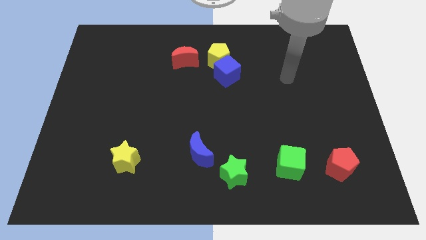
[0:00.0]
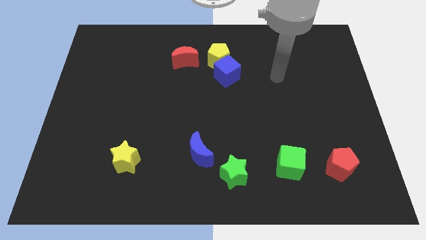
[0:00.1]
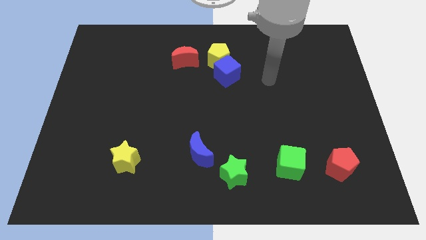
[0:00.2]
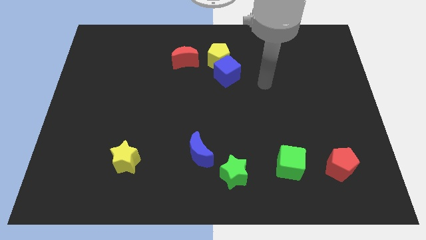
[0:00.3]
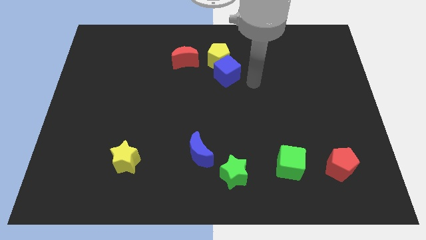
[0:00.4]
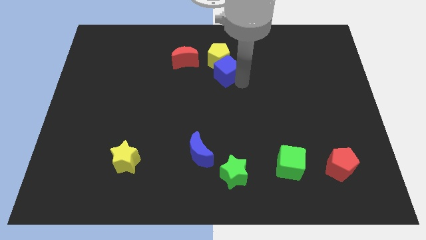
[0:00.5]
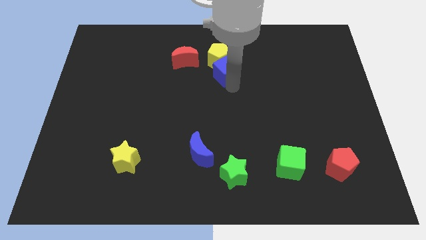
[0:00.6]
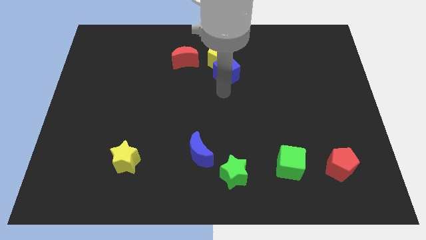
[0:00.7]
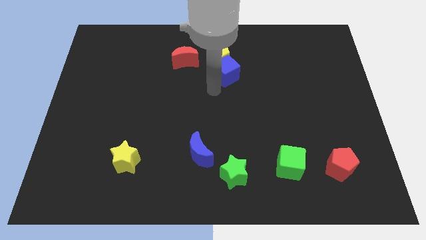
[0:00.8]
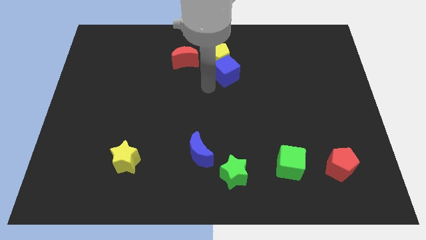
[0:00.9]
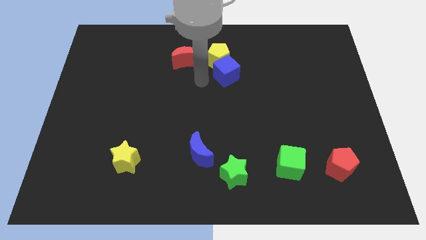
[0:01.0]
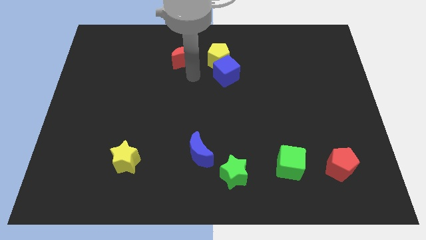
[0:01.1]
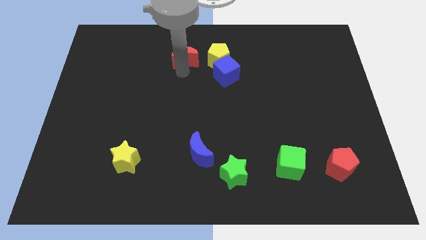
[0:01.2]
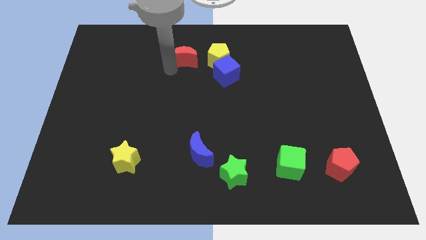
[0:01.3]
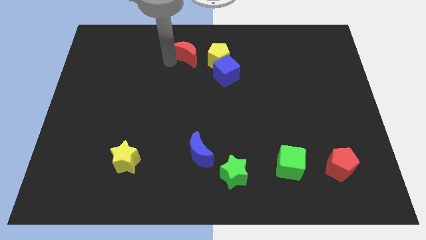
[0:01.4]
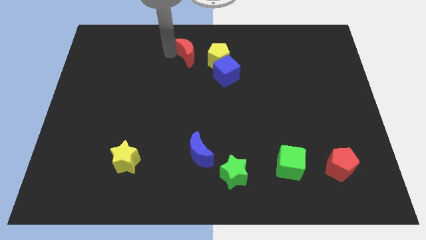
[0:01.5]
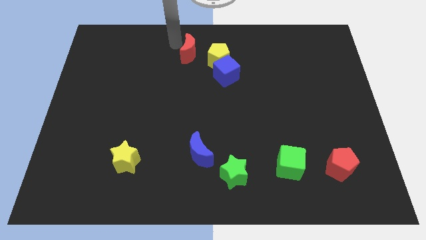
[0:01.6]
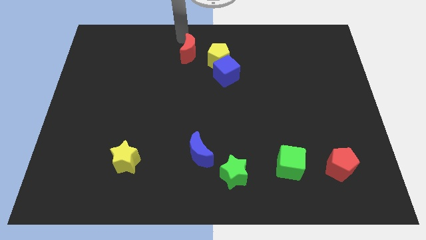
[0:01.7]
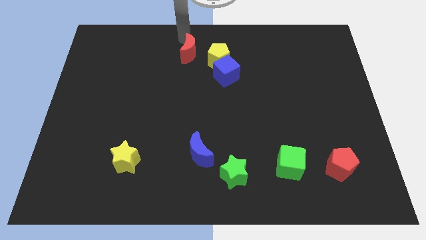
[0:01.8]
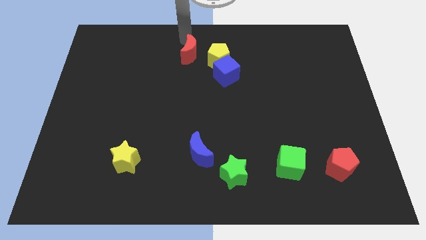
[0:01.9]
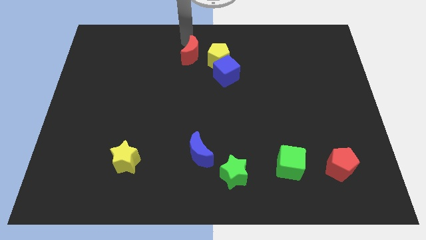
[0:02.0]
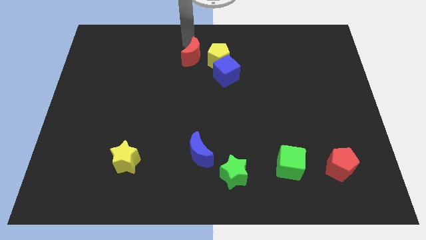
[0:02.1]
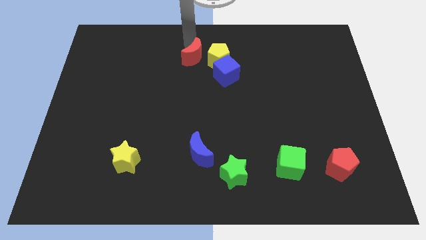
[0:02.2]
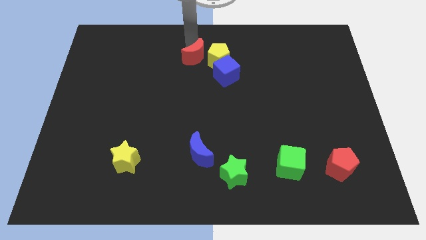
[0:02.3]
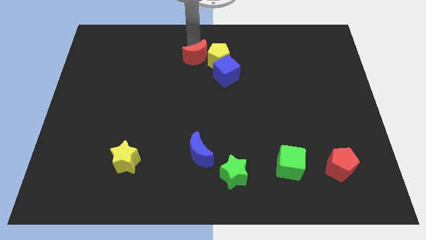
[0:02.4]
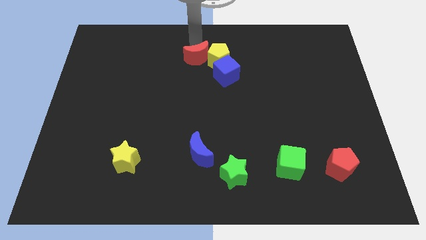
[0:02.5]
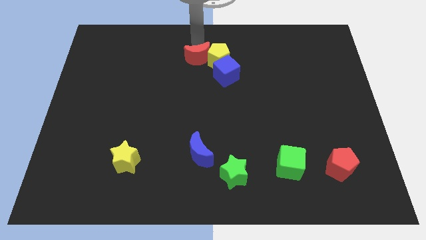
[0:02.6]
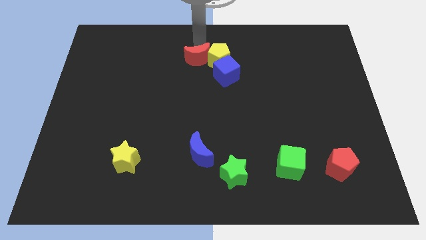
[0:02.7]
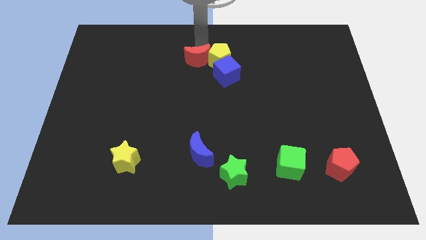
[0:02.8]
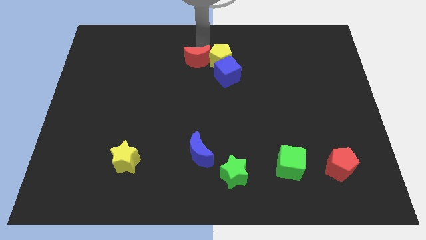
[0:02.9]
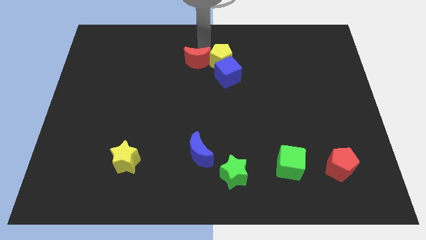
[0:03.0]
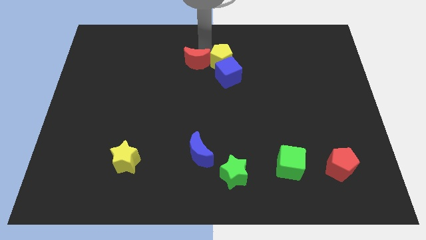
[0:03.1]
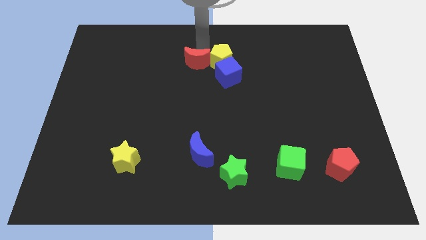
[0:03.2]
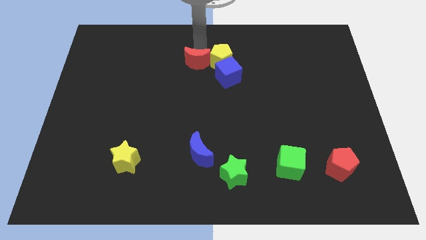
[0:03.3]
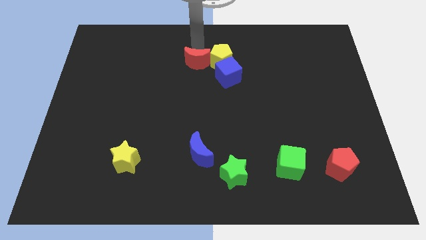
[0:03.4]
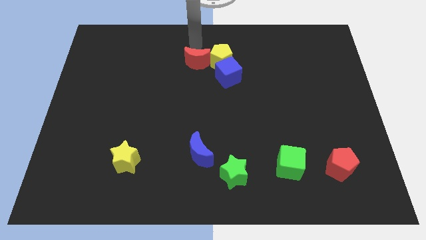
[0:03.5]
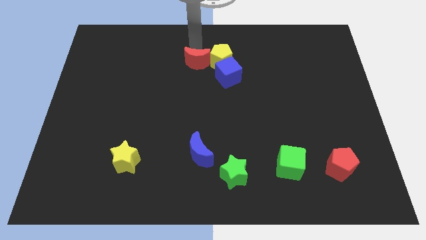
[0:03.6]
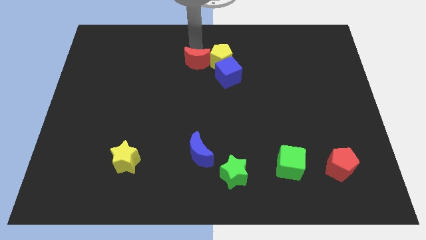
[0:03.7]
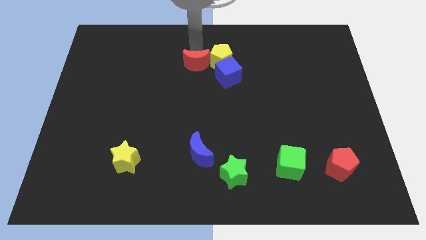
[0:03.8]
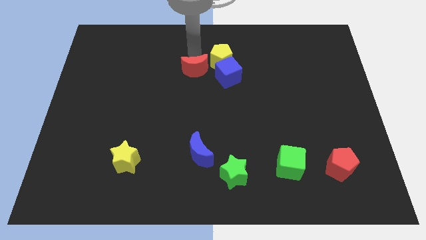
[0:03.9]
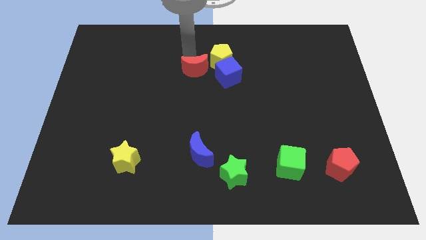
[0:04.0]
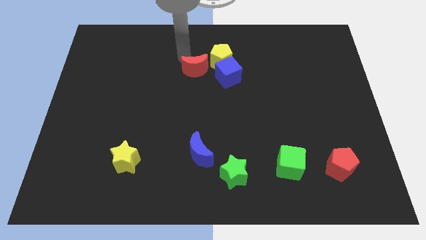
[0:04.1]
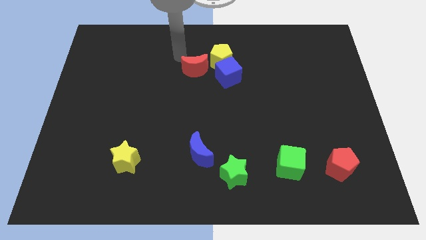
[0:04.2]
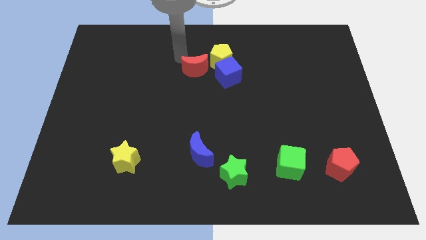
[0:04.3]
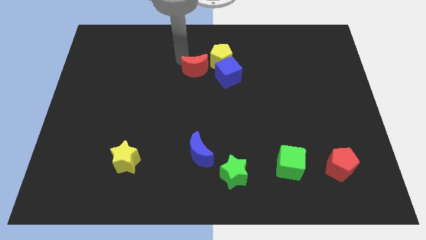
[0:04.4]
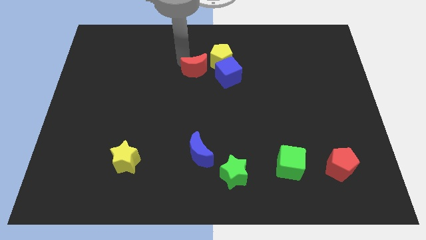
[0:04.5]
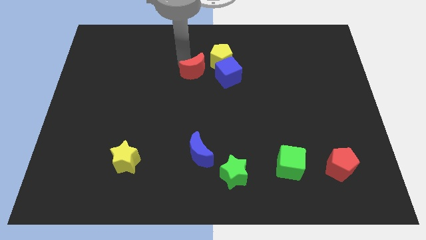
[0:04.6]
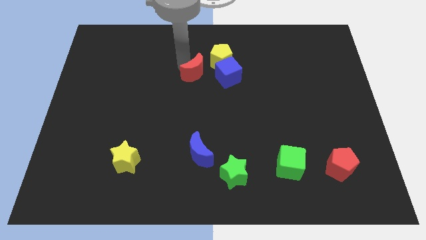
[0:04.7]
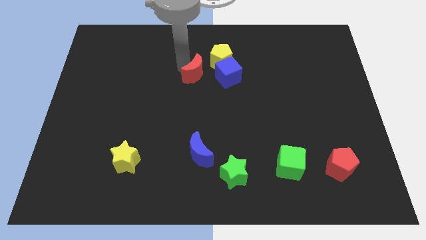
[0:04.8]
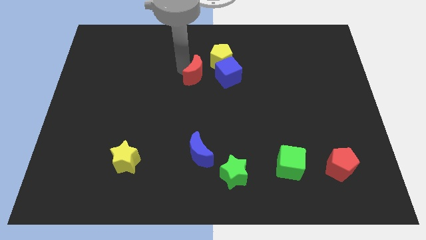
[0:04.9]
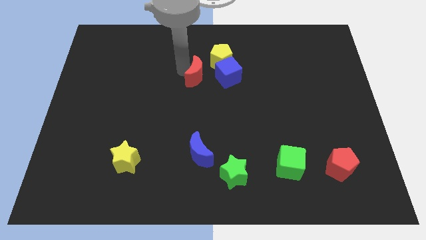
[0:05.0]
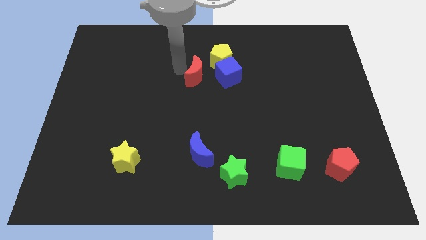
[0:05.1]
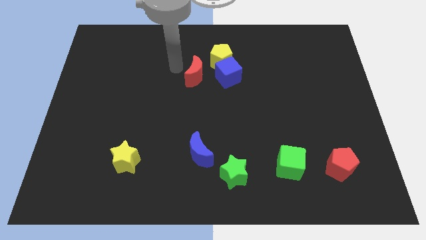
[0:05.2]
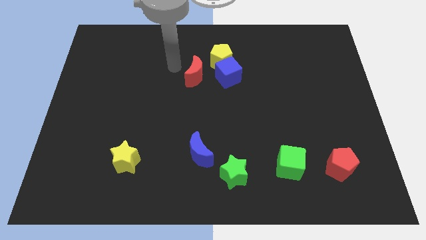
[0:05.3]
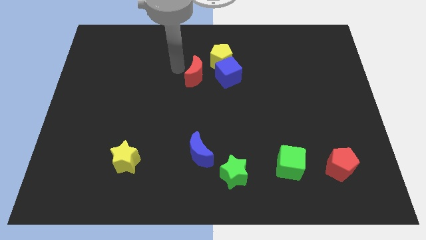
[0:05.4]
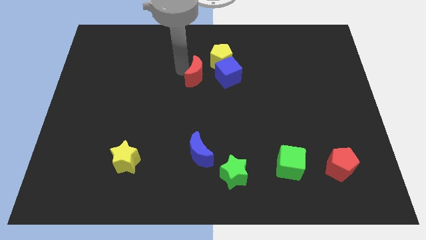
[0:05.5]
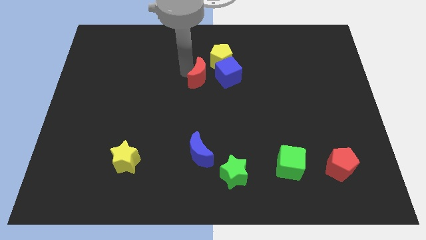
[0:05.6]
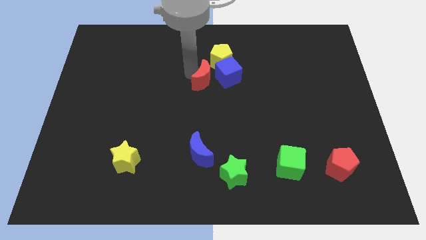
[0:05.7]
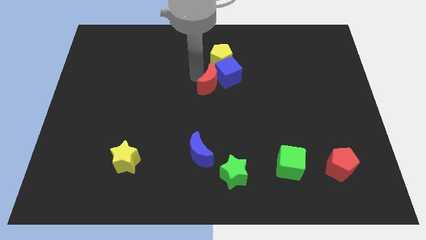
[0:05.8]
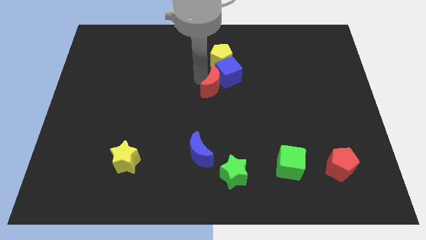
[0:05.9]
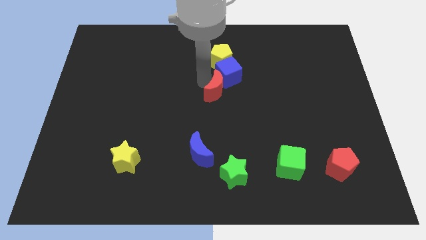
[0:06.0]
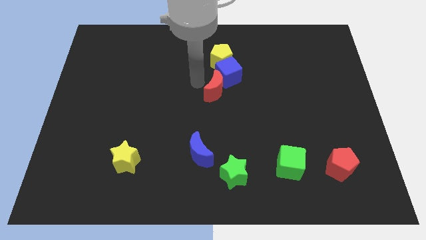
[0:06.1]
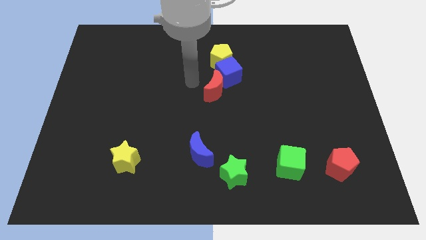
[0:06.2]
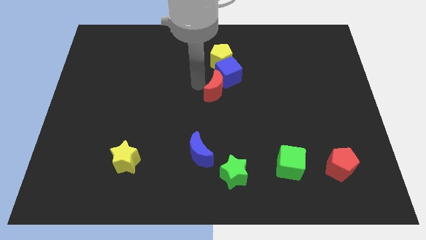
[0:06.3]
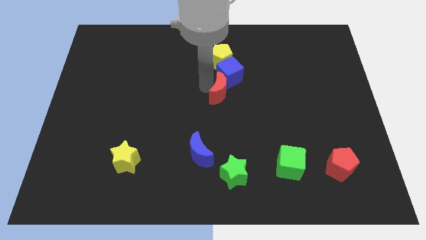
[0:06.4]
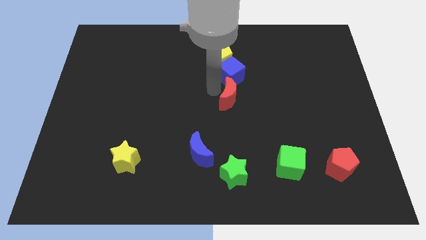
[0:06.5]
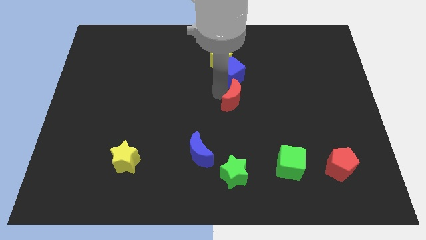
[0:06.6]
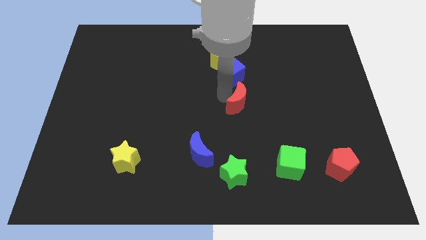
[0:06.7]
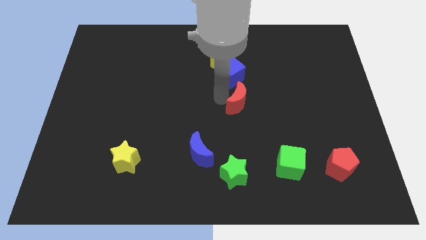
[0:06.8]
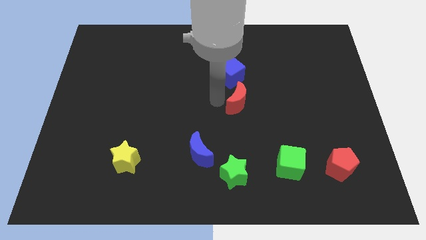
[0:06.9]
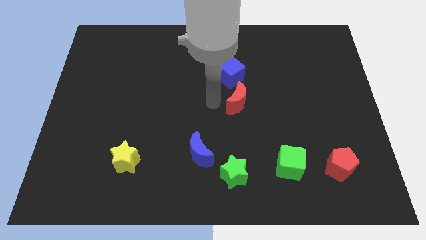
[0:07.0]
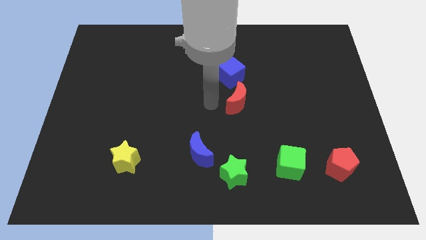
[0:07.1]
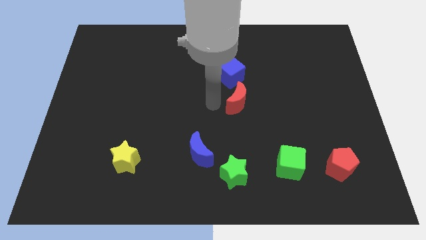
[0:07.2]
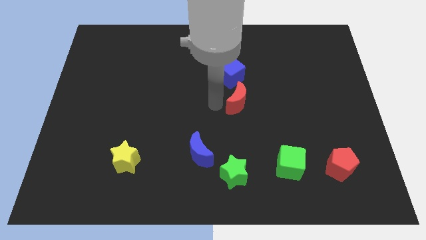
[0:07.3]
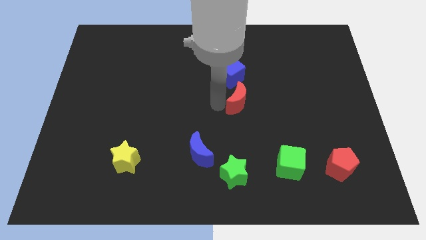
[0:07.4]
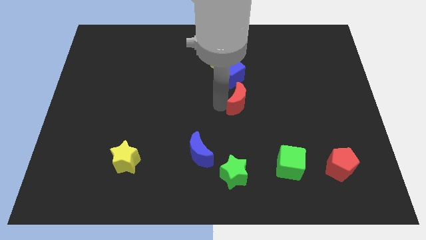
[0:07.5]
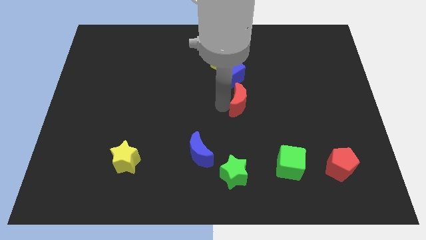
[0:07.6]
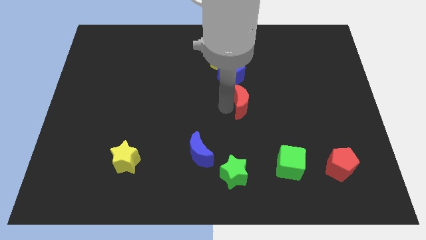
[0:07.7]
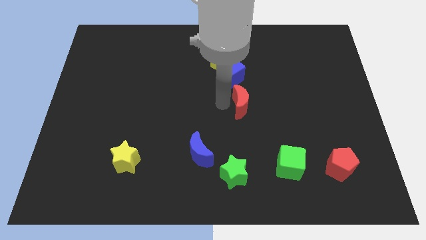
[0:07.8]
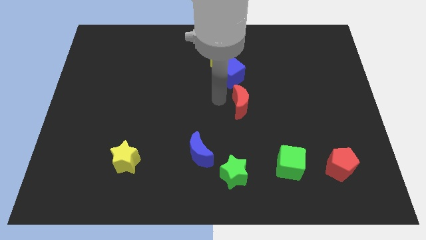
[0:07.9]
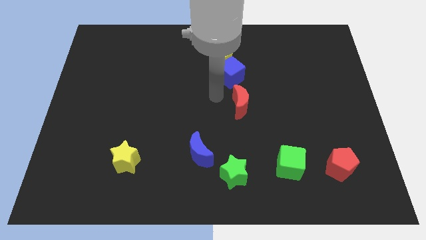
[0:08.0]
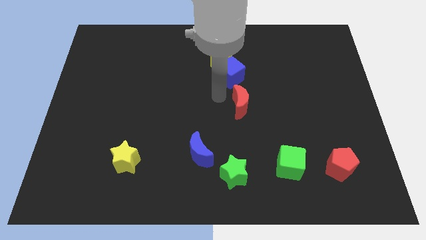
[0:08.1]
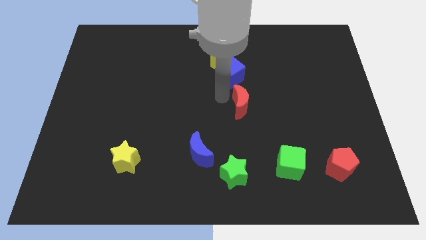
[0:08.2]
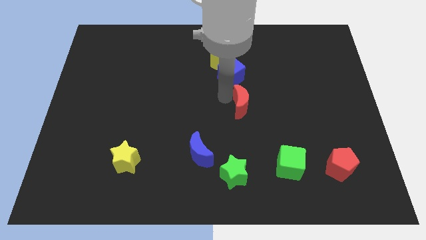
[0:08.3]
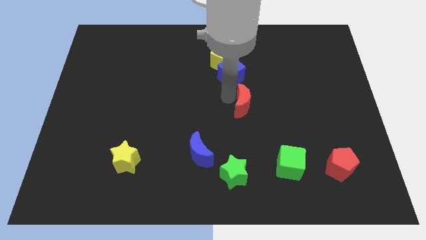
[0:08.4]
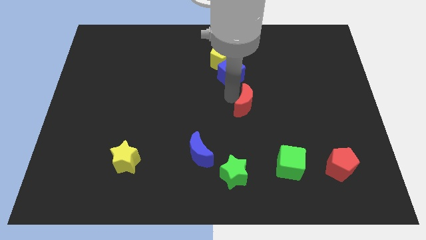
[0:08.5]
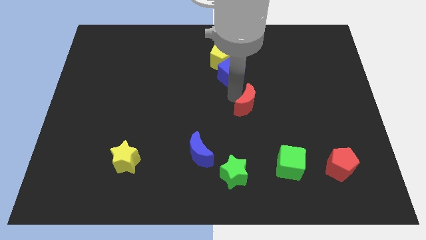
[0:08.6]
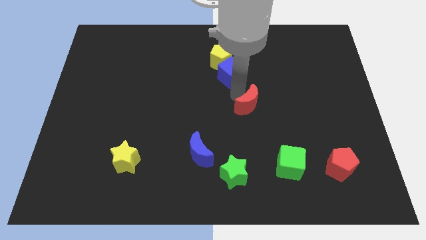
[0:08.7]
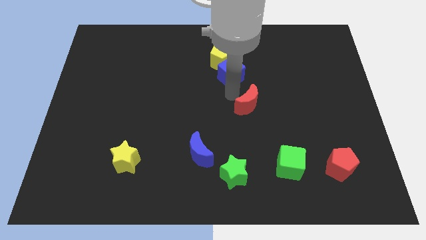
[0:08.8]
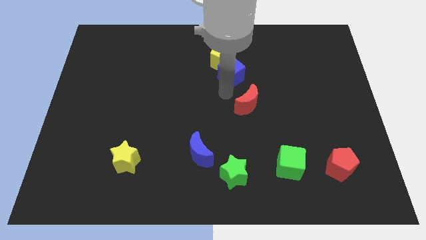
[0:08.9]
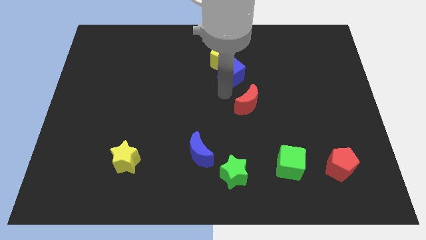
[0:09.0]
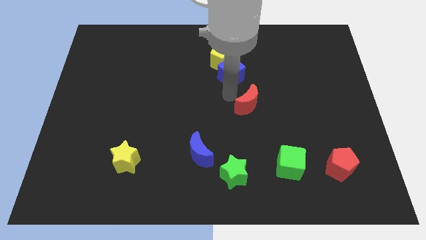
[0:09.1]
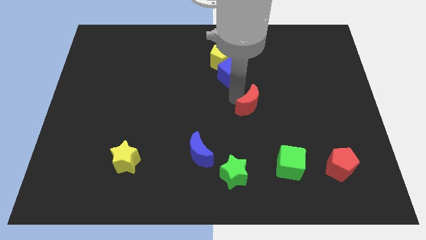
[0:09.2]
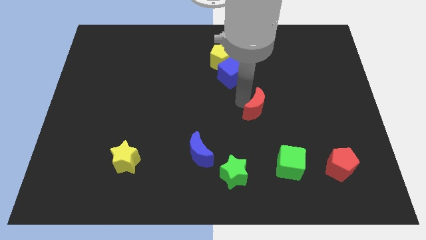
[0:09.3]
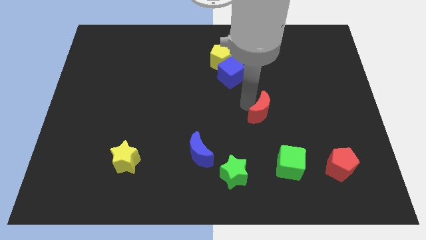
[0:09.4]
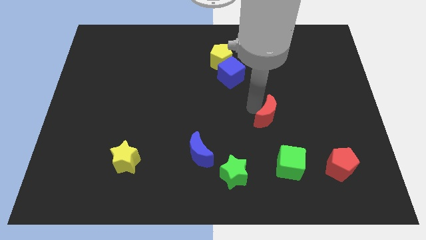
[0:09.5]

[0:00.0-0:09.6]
slide the red moon above the green cube
